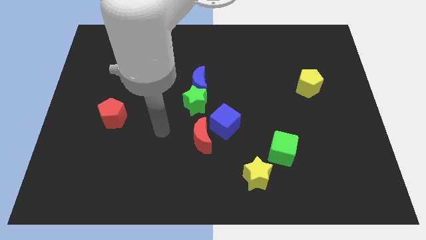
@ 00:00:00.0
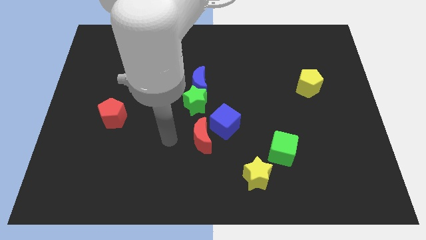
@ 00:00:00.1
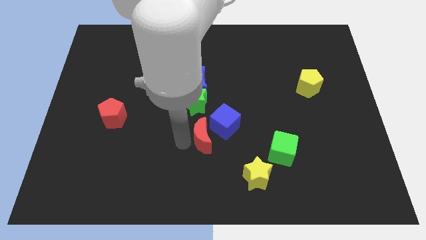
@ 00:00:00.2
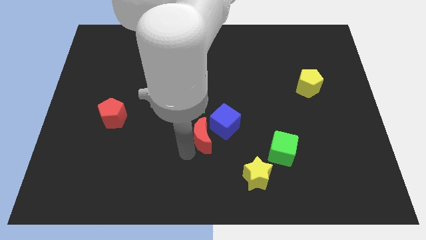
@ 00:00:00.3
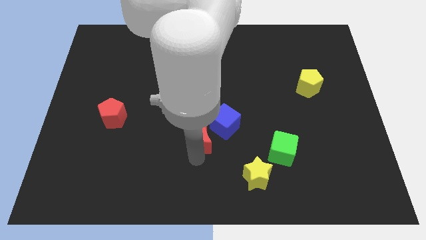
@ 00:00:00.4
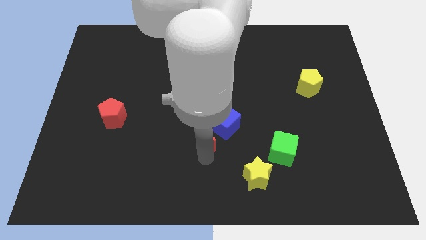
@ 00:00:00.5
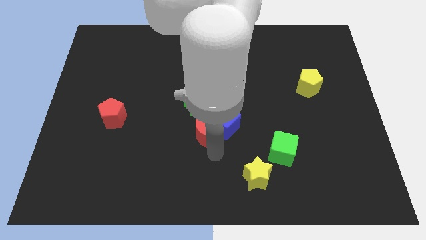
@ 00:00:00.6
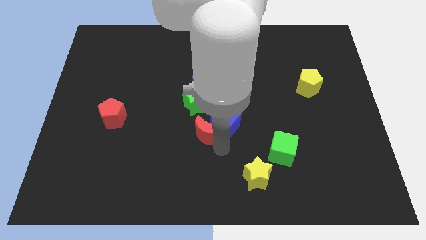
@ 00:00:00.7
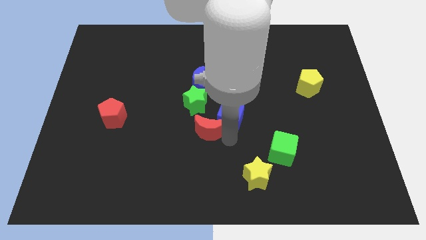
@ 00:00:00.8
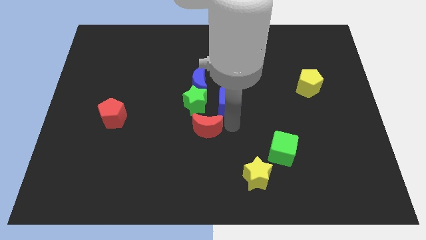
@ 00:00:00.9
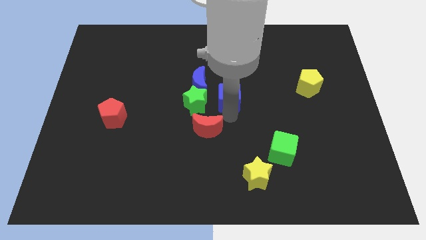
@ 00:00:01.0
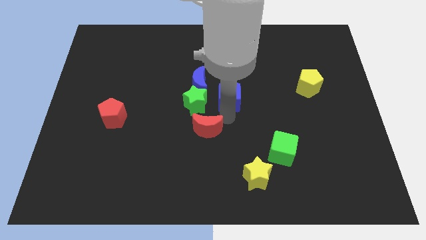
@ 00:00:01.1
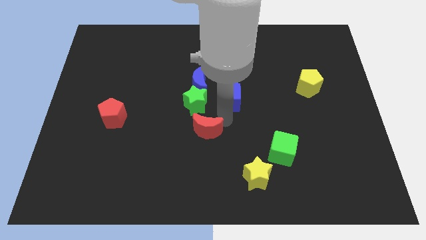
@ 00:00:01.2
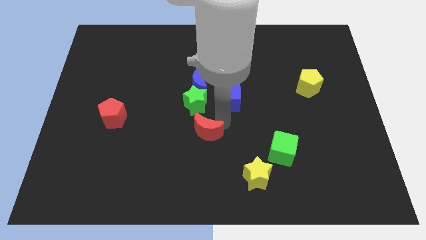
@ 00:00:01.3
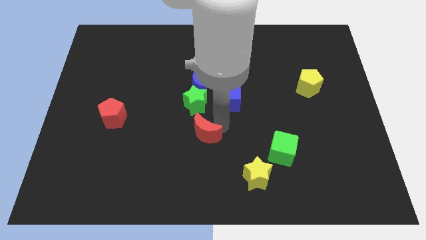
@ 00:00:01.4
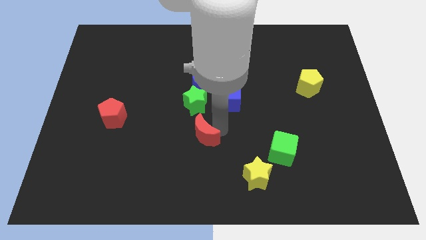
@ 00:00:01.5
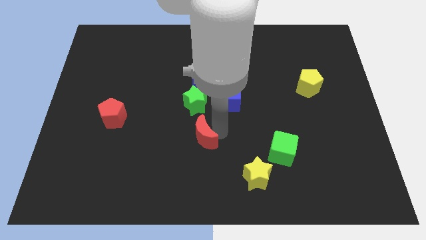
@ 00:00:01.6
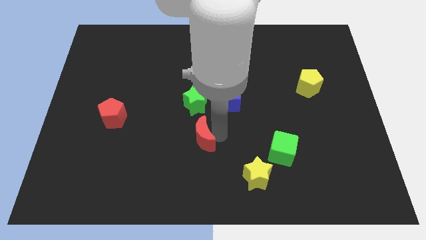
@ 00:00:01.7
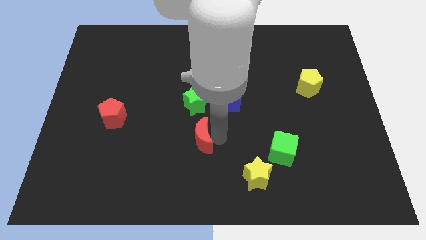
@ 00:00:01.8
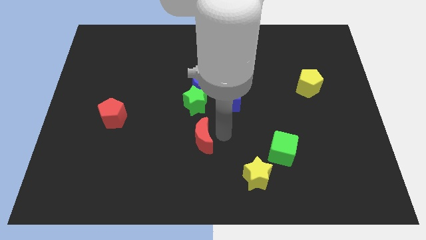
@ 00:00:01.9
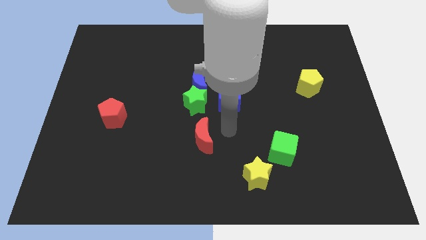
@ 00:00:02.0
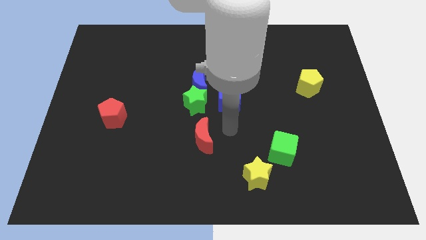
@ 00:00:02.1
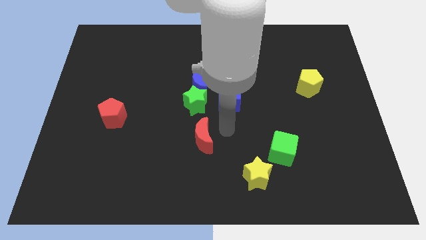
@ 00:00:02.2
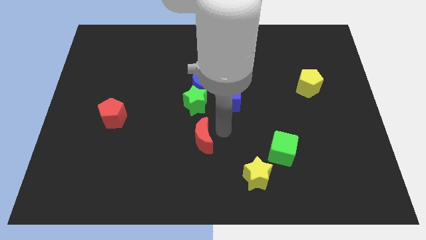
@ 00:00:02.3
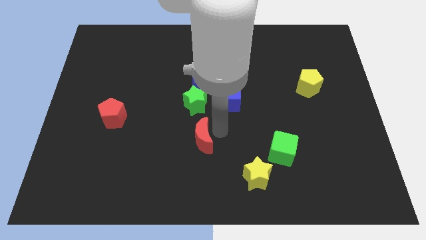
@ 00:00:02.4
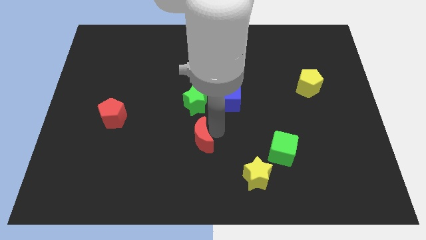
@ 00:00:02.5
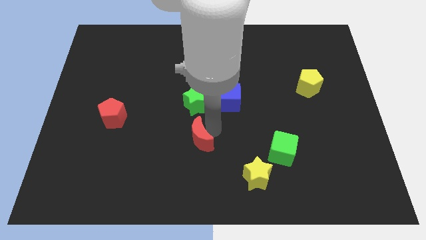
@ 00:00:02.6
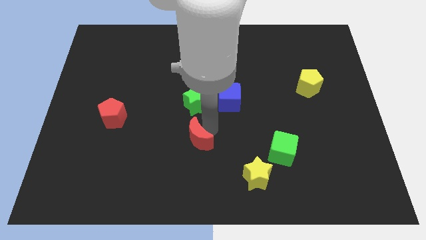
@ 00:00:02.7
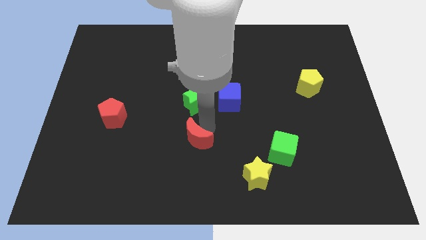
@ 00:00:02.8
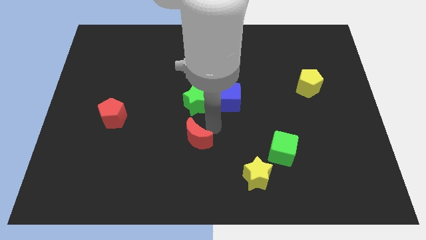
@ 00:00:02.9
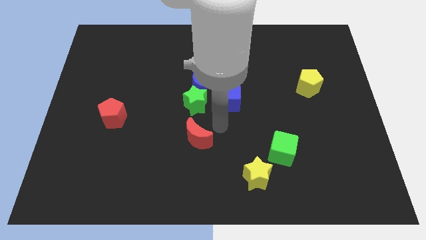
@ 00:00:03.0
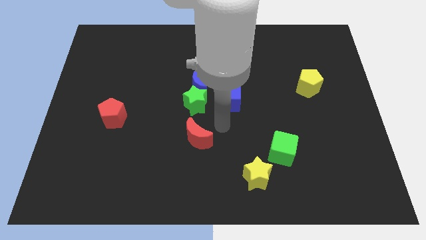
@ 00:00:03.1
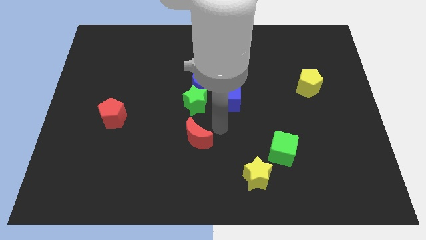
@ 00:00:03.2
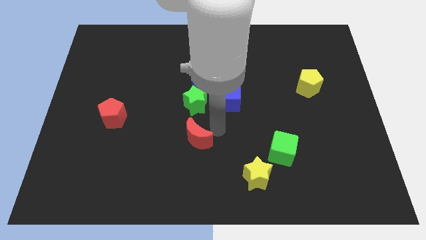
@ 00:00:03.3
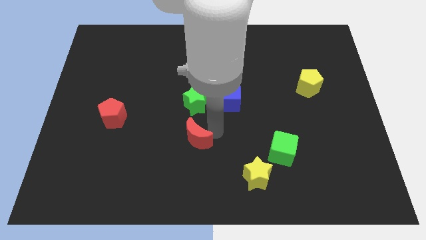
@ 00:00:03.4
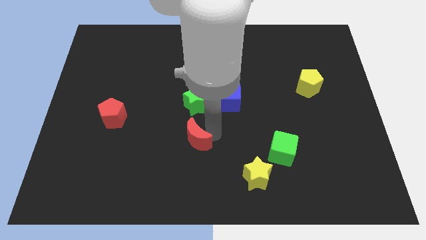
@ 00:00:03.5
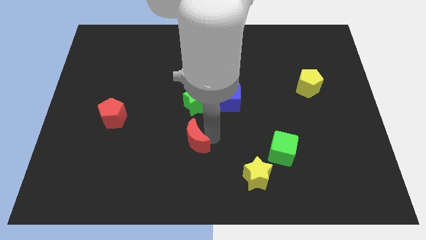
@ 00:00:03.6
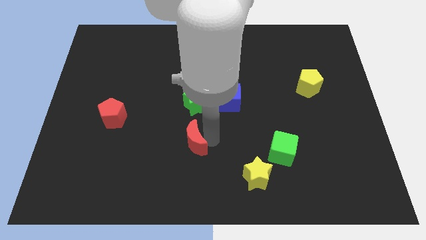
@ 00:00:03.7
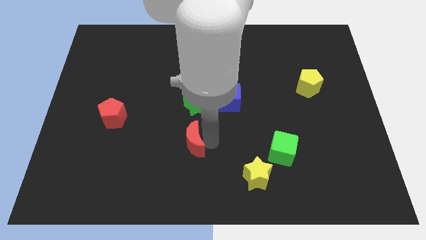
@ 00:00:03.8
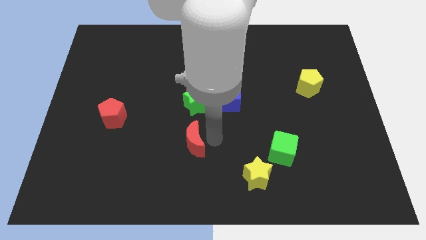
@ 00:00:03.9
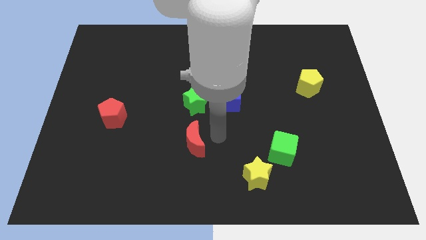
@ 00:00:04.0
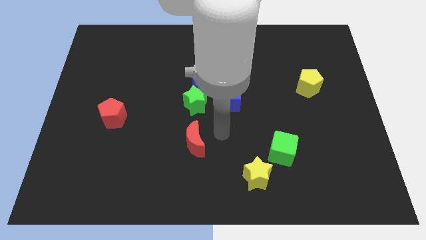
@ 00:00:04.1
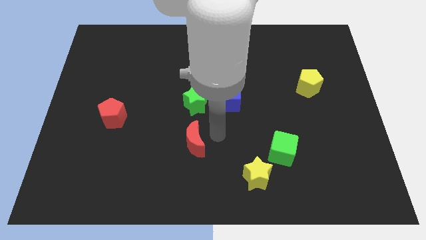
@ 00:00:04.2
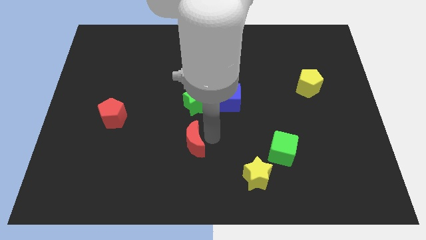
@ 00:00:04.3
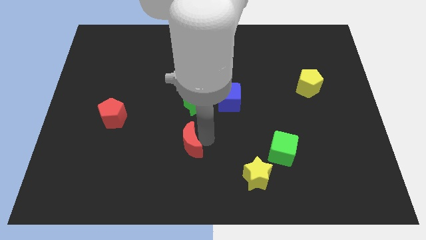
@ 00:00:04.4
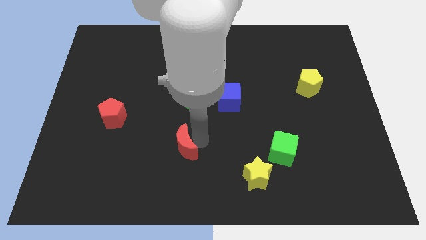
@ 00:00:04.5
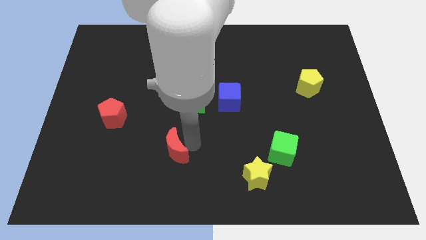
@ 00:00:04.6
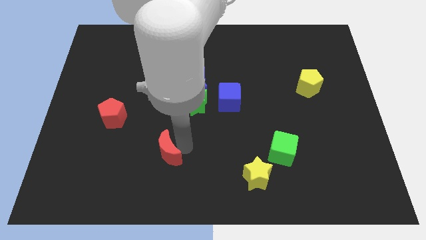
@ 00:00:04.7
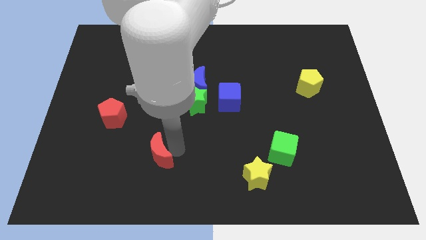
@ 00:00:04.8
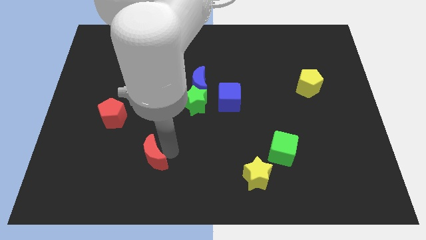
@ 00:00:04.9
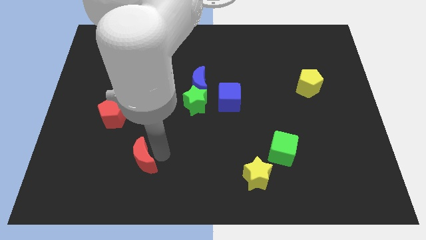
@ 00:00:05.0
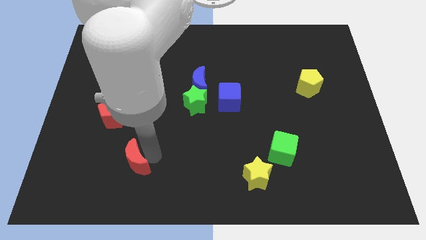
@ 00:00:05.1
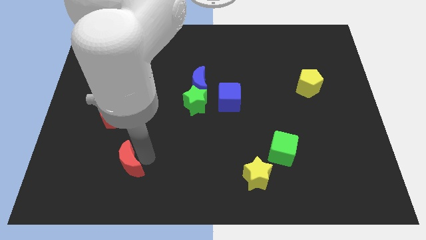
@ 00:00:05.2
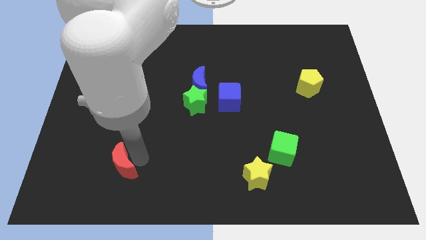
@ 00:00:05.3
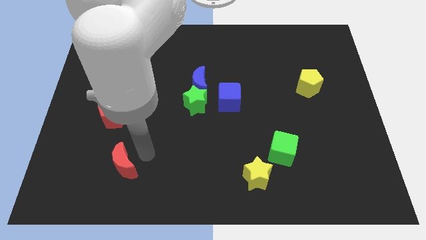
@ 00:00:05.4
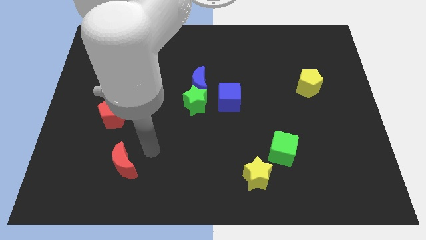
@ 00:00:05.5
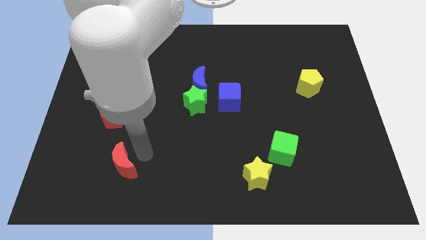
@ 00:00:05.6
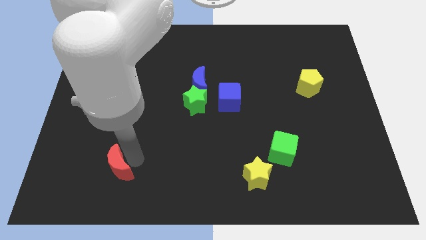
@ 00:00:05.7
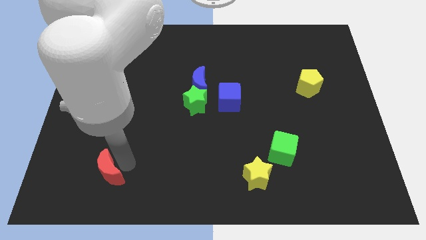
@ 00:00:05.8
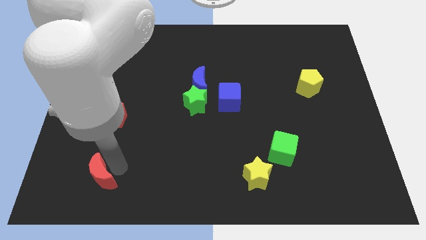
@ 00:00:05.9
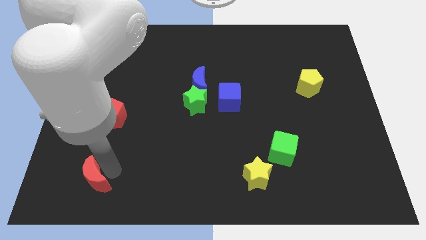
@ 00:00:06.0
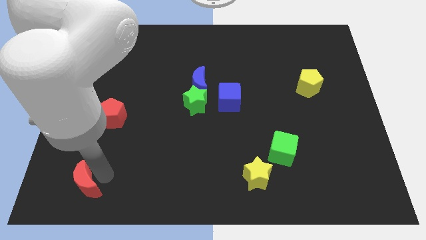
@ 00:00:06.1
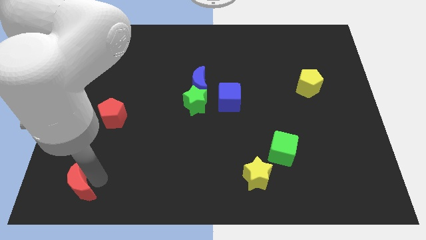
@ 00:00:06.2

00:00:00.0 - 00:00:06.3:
push the red moon to the bottom left
